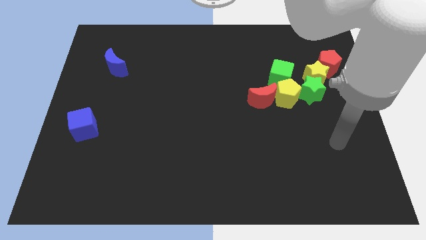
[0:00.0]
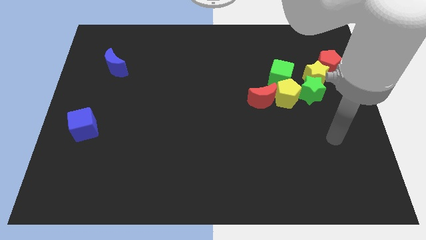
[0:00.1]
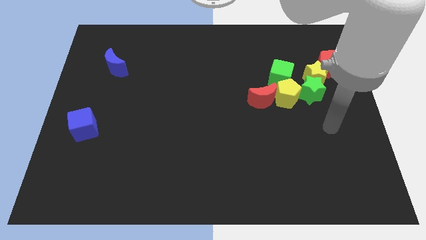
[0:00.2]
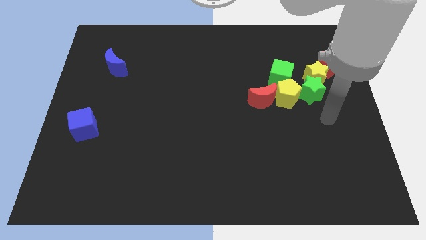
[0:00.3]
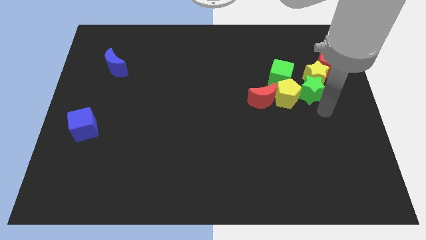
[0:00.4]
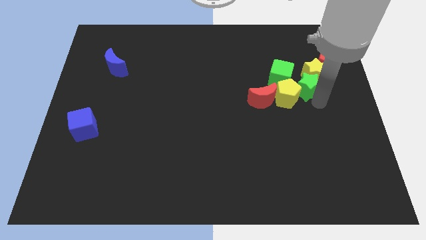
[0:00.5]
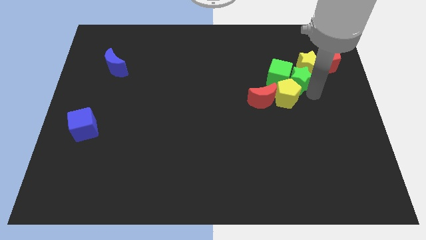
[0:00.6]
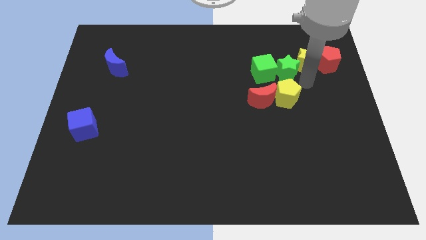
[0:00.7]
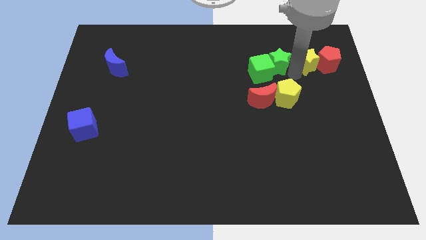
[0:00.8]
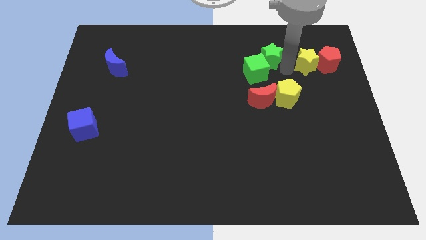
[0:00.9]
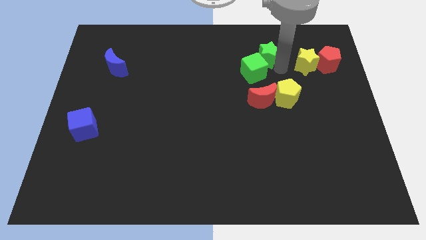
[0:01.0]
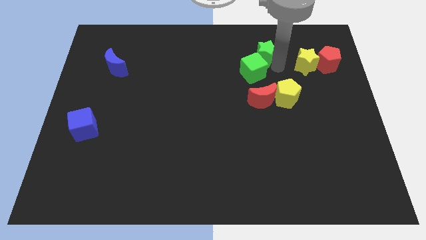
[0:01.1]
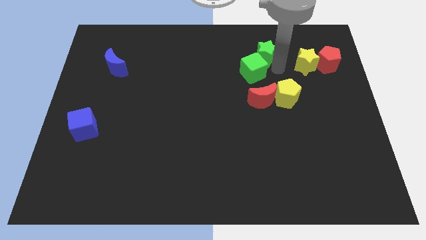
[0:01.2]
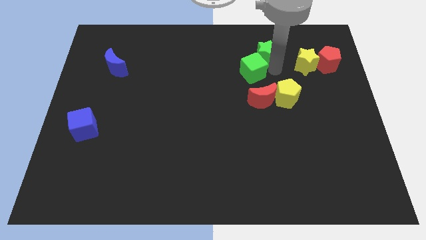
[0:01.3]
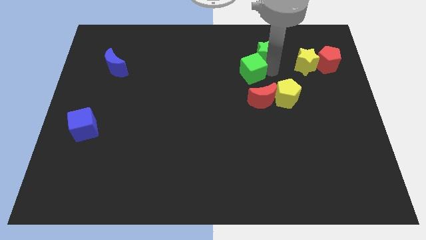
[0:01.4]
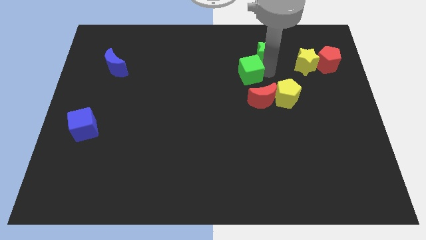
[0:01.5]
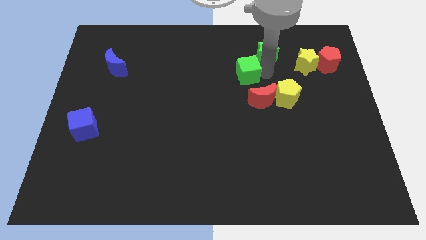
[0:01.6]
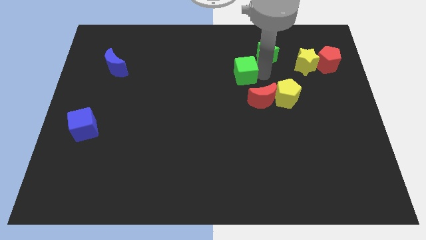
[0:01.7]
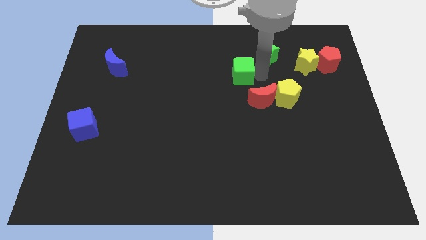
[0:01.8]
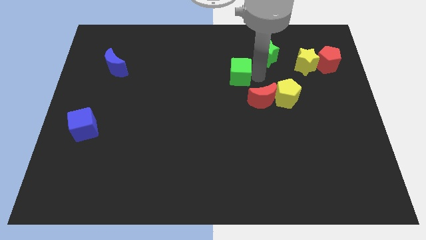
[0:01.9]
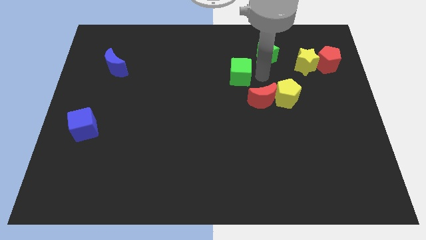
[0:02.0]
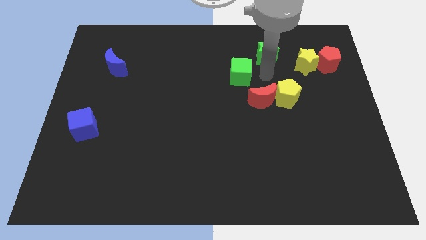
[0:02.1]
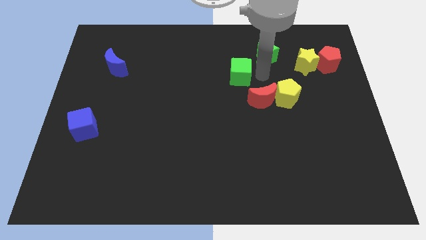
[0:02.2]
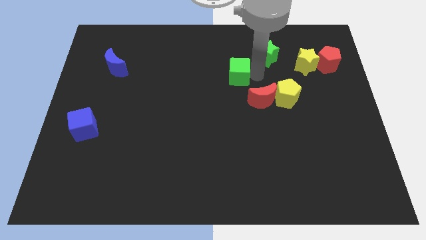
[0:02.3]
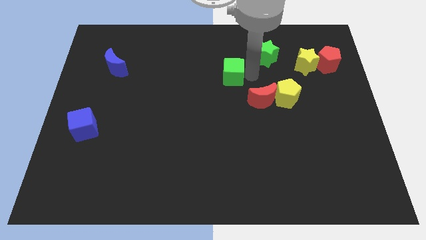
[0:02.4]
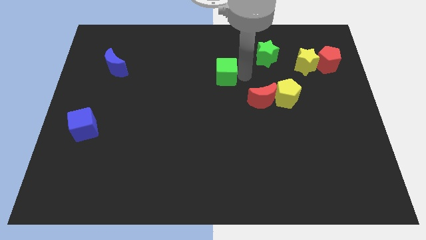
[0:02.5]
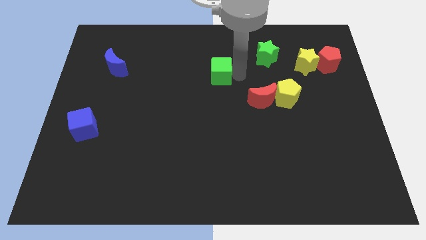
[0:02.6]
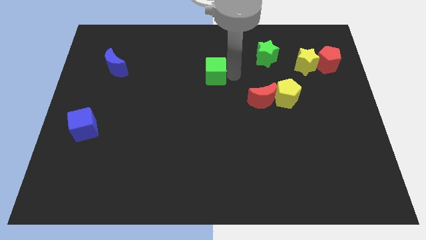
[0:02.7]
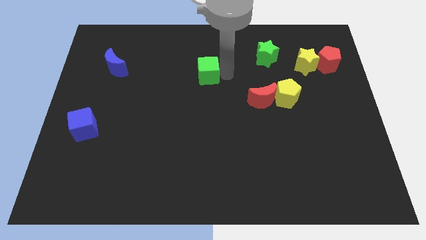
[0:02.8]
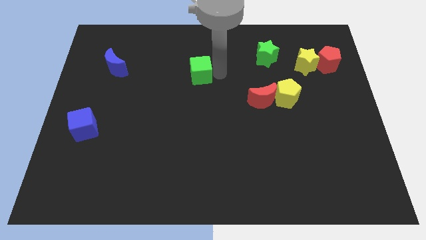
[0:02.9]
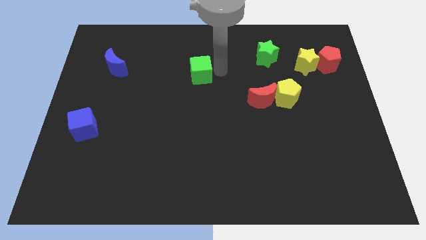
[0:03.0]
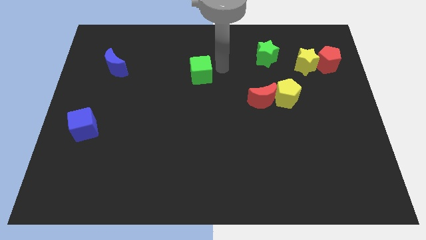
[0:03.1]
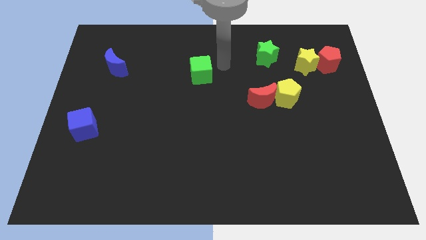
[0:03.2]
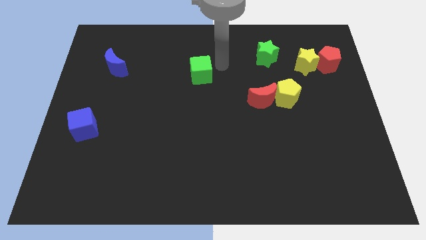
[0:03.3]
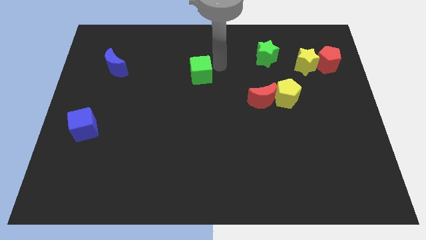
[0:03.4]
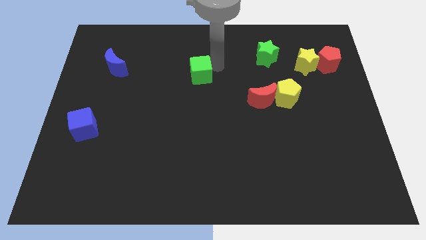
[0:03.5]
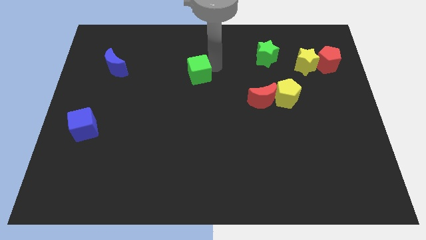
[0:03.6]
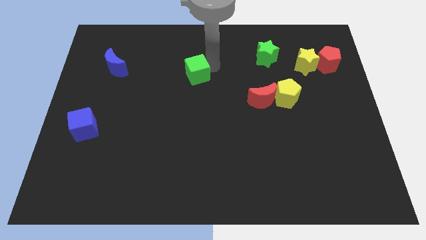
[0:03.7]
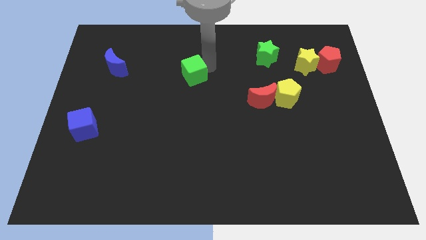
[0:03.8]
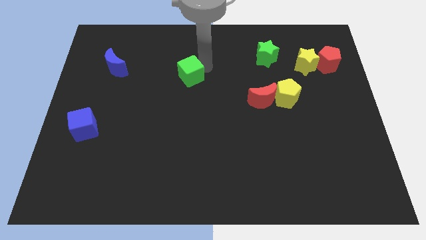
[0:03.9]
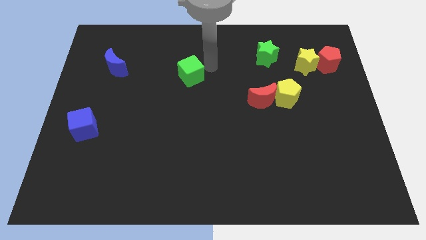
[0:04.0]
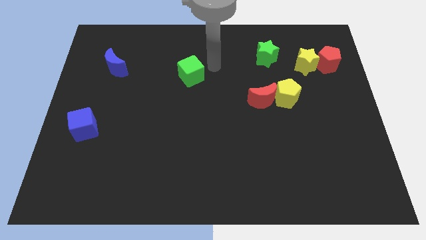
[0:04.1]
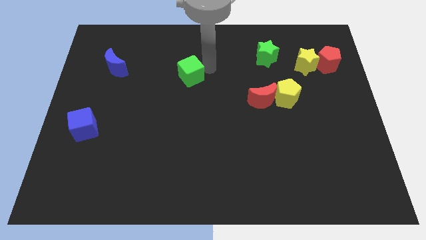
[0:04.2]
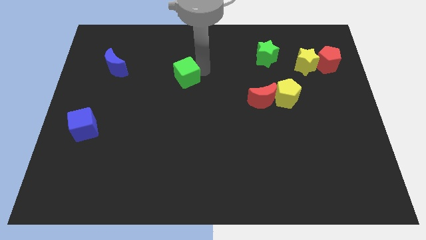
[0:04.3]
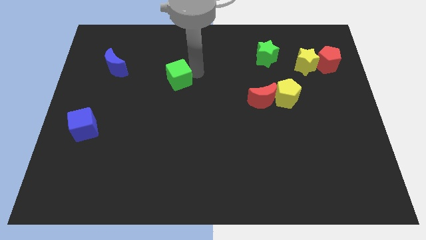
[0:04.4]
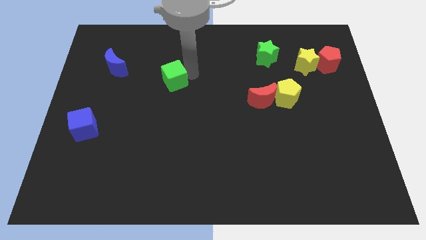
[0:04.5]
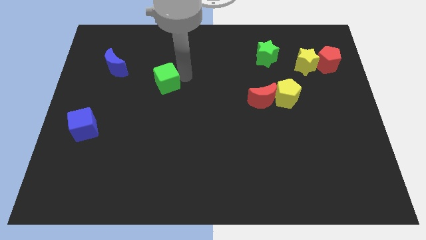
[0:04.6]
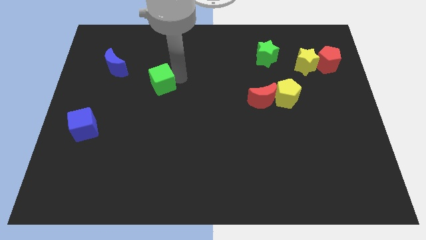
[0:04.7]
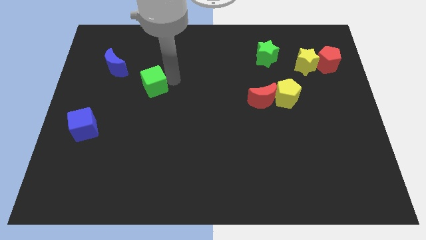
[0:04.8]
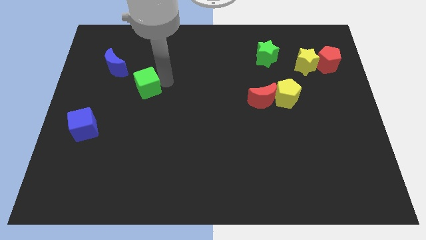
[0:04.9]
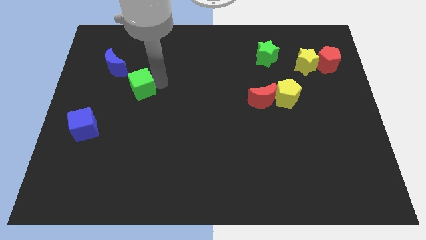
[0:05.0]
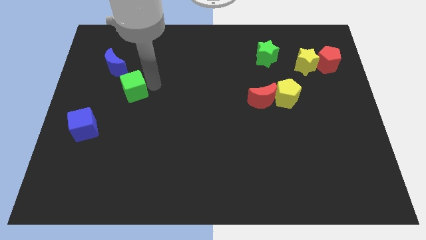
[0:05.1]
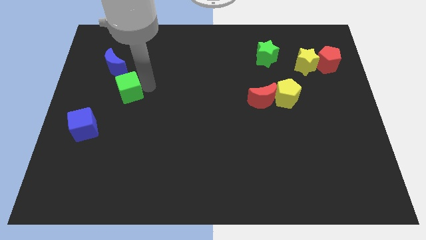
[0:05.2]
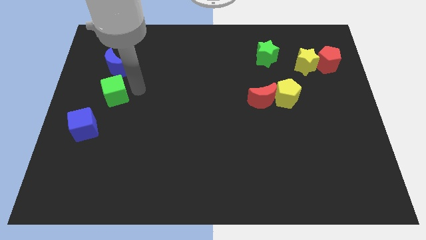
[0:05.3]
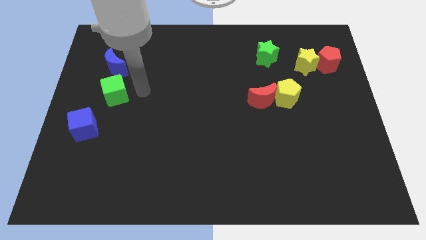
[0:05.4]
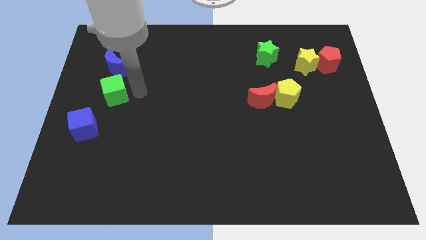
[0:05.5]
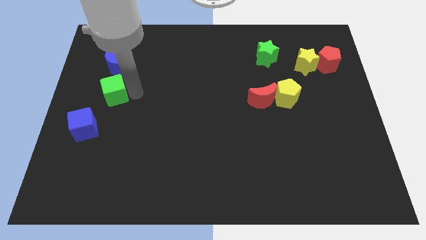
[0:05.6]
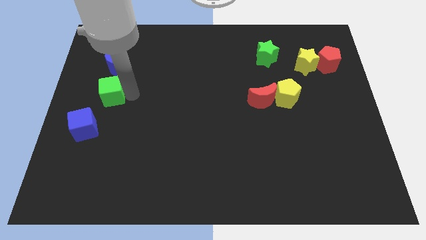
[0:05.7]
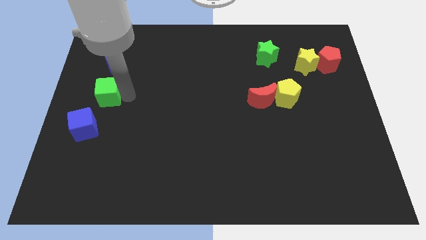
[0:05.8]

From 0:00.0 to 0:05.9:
slide the green cube to the left side

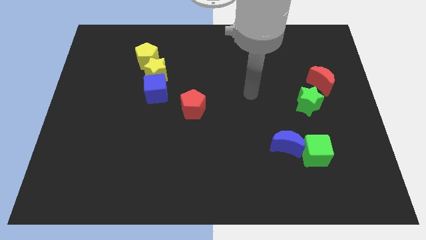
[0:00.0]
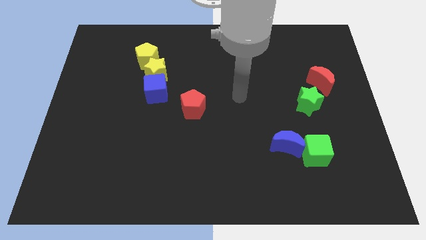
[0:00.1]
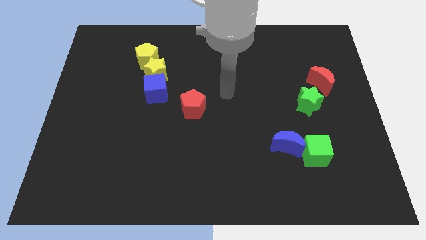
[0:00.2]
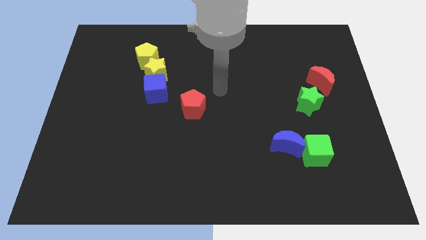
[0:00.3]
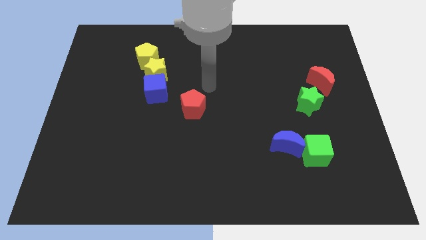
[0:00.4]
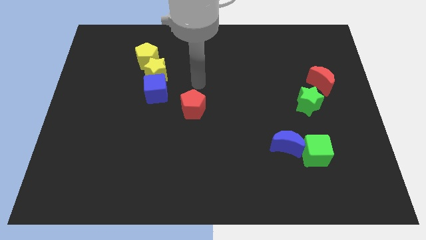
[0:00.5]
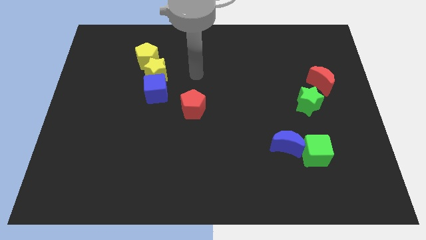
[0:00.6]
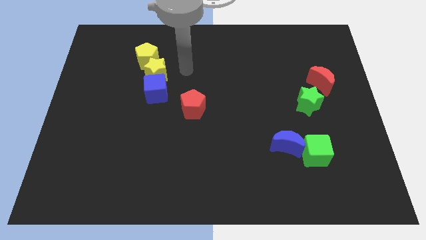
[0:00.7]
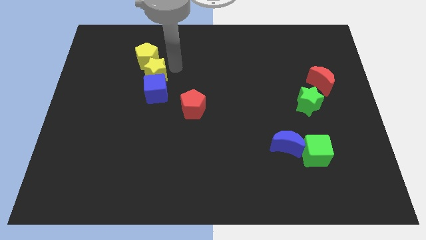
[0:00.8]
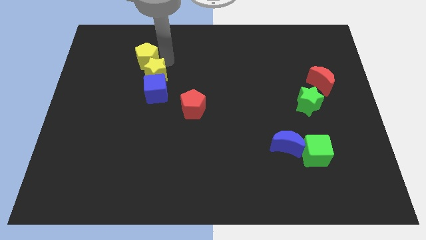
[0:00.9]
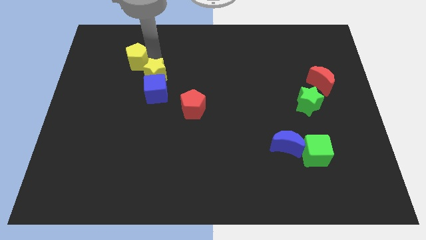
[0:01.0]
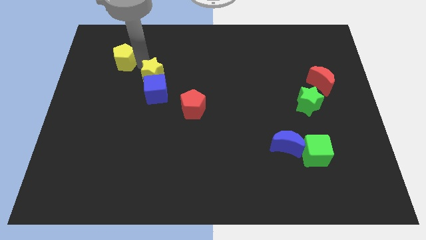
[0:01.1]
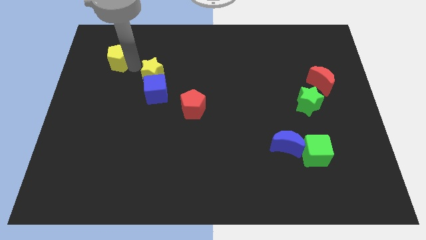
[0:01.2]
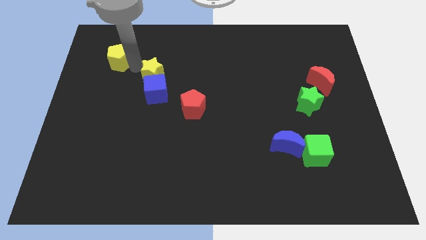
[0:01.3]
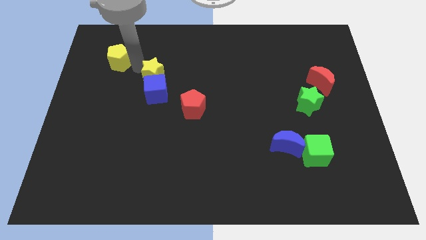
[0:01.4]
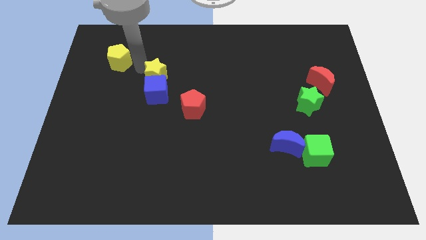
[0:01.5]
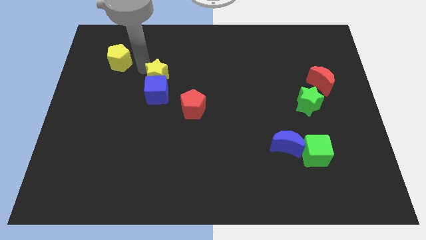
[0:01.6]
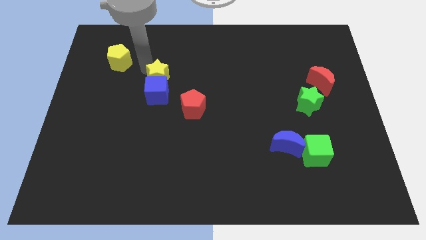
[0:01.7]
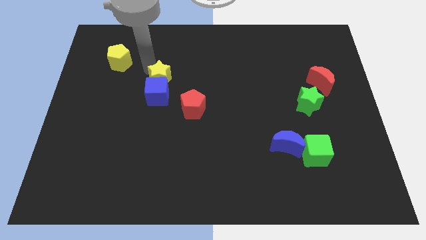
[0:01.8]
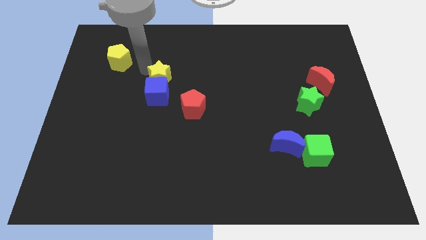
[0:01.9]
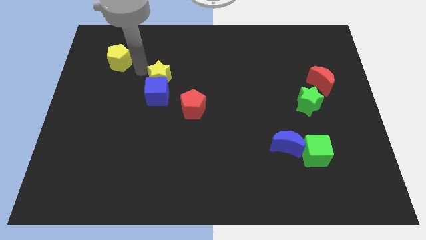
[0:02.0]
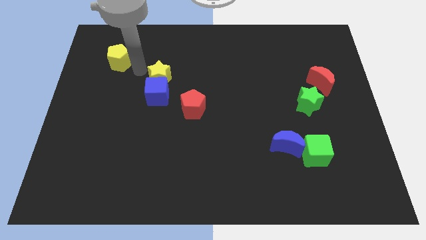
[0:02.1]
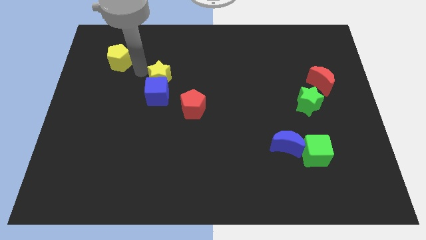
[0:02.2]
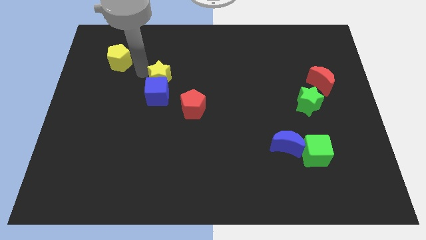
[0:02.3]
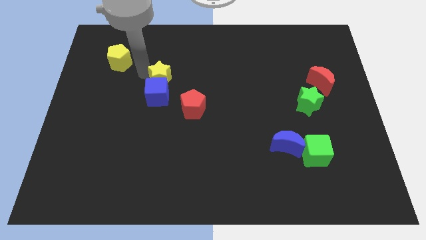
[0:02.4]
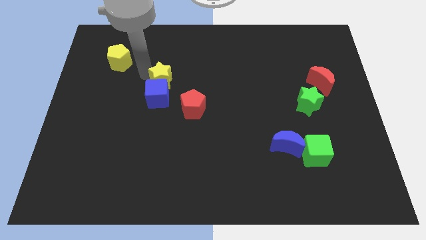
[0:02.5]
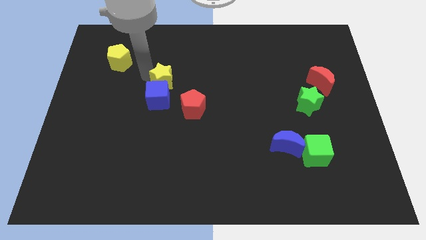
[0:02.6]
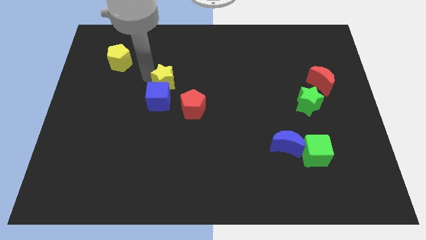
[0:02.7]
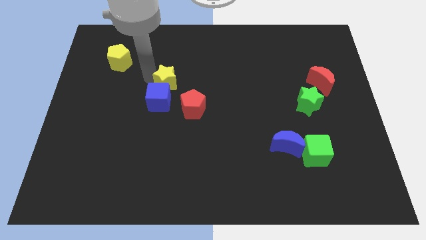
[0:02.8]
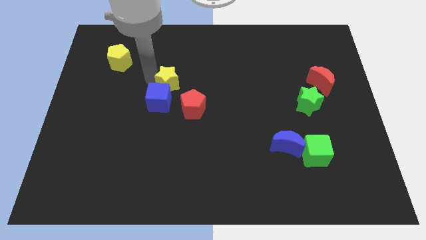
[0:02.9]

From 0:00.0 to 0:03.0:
put the yellow star to the middle of the board
